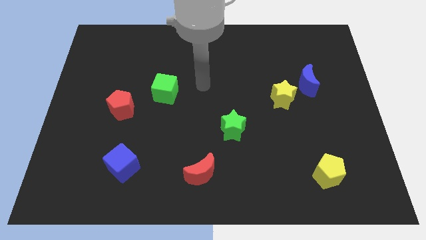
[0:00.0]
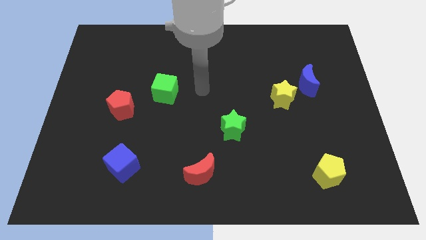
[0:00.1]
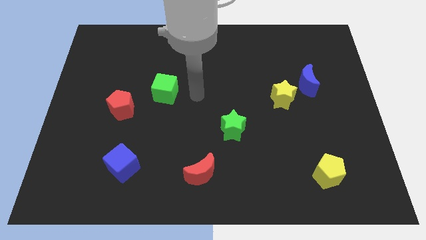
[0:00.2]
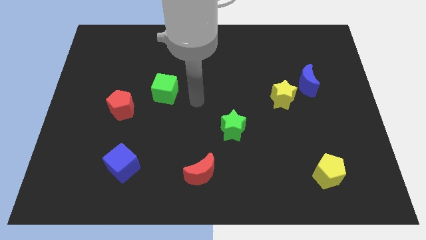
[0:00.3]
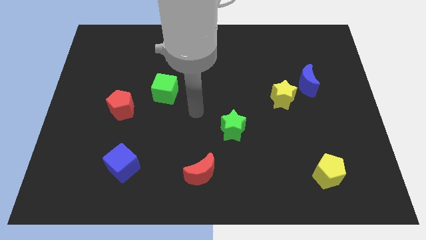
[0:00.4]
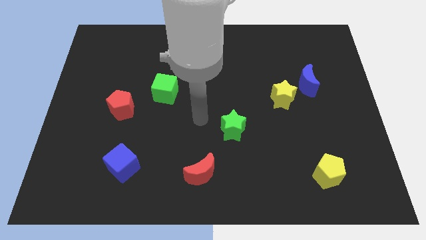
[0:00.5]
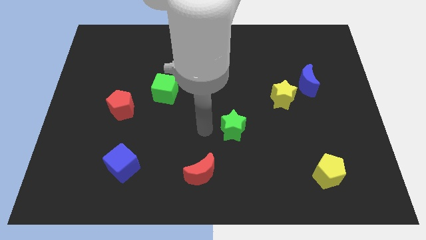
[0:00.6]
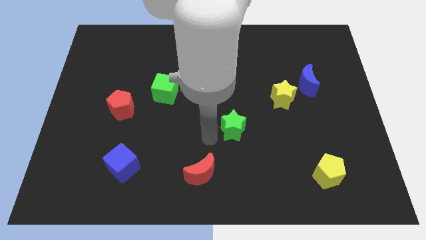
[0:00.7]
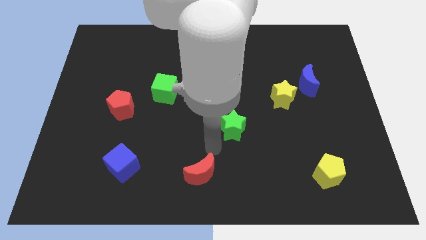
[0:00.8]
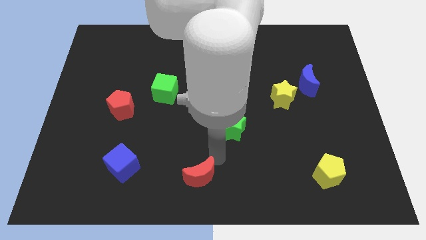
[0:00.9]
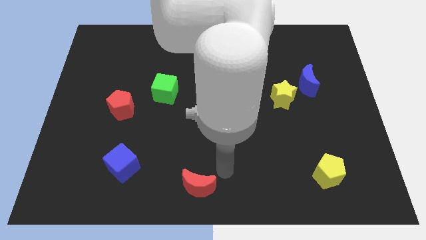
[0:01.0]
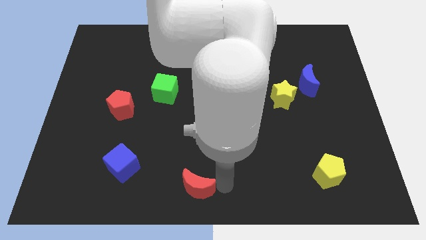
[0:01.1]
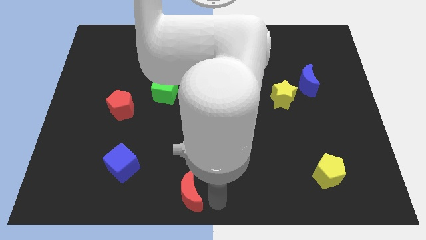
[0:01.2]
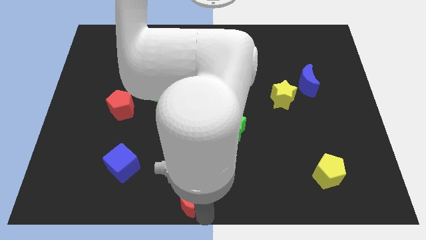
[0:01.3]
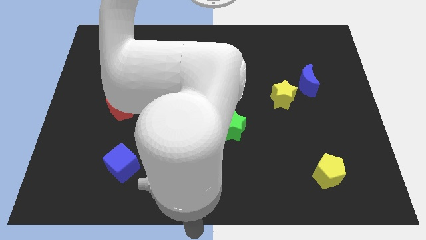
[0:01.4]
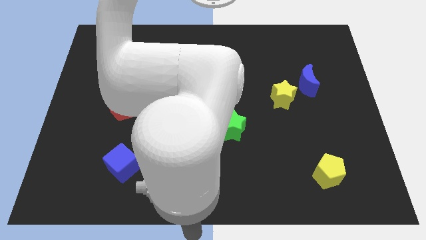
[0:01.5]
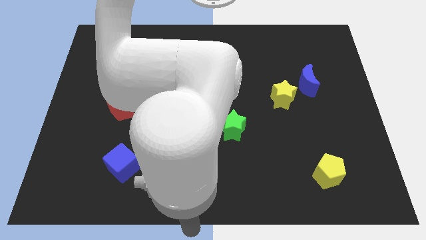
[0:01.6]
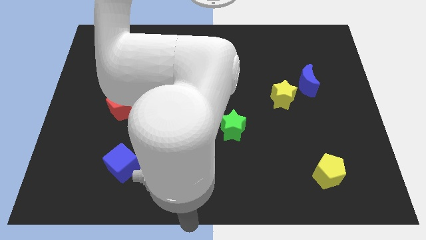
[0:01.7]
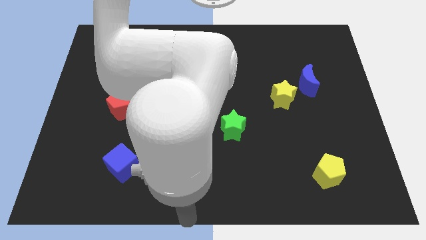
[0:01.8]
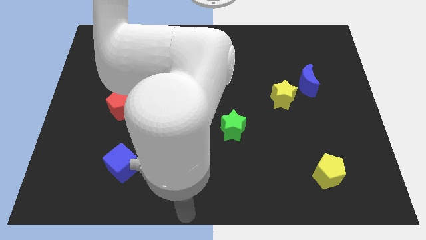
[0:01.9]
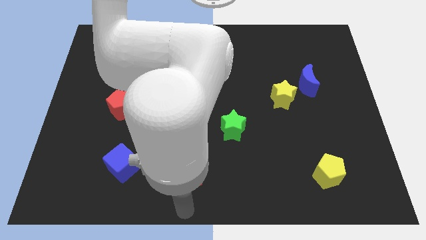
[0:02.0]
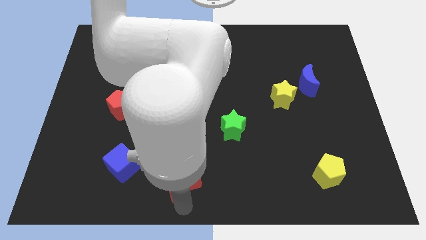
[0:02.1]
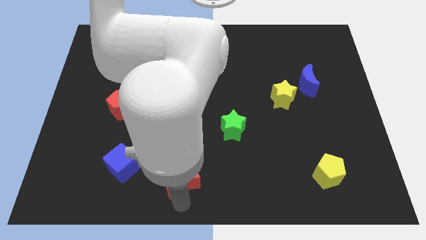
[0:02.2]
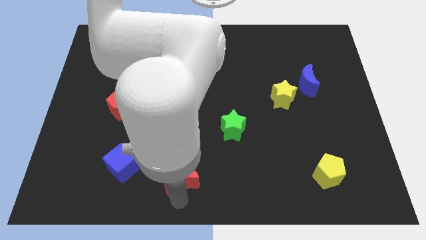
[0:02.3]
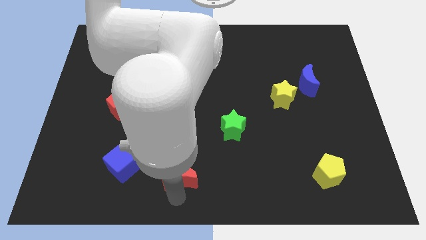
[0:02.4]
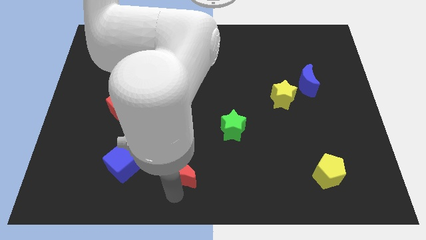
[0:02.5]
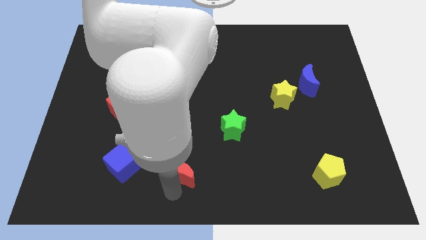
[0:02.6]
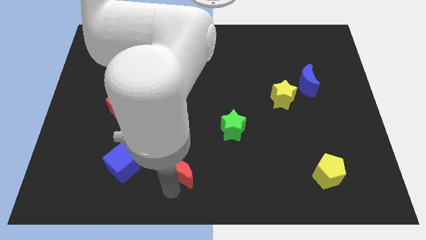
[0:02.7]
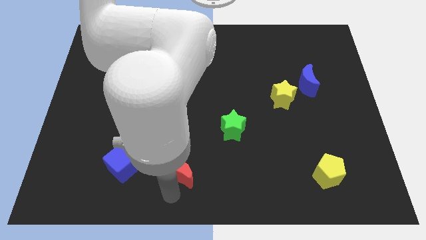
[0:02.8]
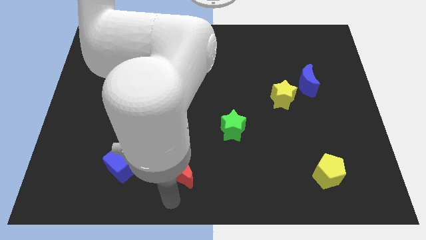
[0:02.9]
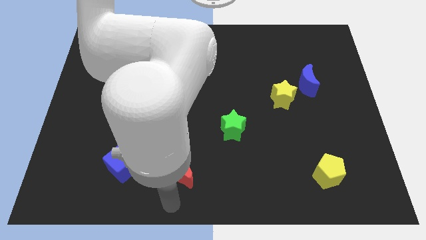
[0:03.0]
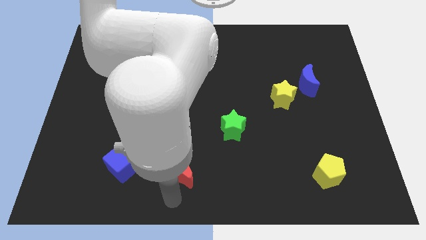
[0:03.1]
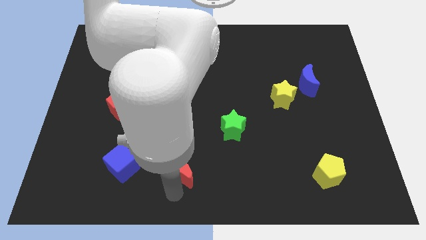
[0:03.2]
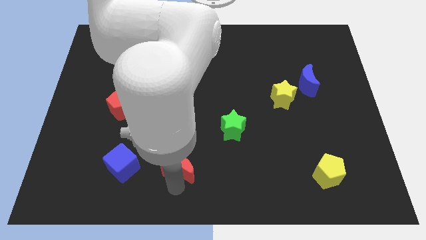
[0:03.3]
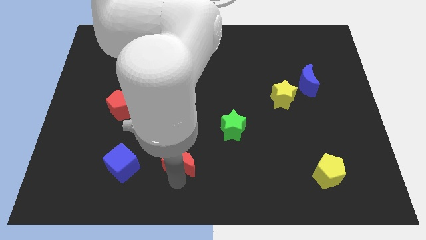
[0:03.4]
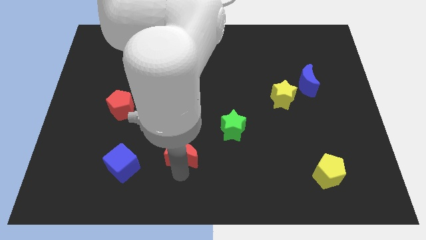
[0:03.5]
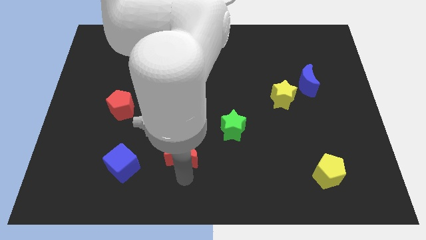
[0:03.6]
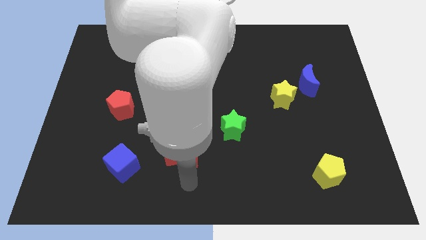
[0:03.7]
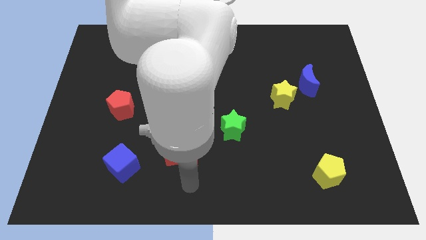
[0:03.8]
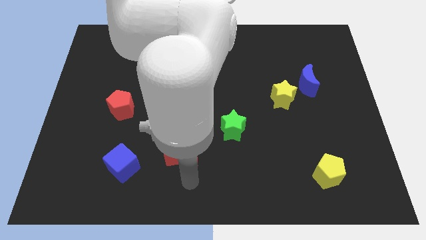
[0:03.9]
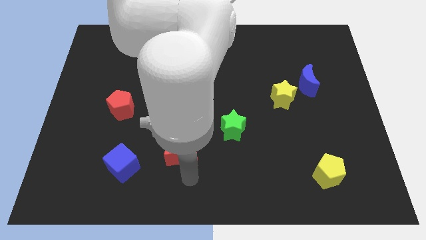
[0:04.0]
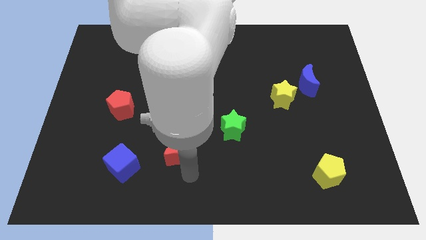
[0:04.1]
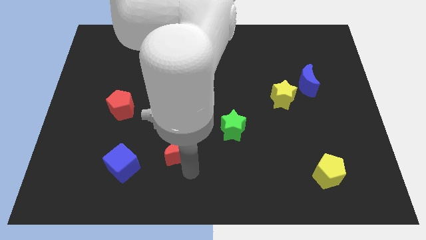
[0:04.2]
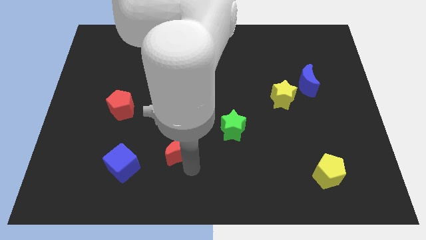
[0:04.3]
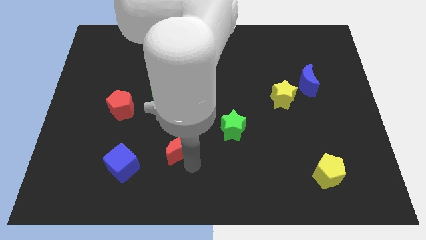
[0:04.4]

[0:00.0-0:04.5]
push the red moon diagonally up and left a bit

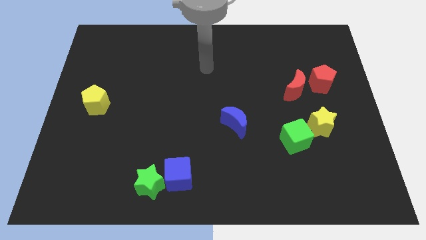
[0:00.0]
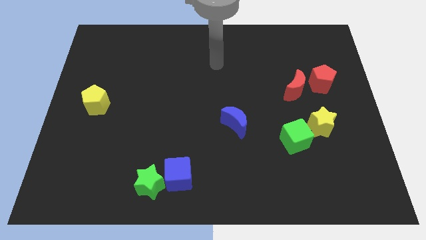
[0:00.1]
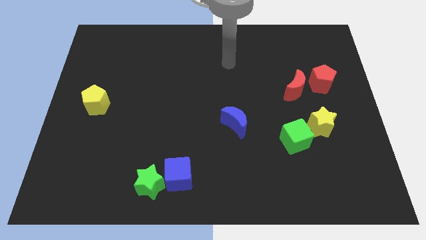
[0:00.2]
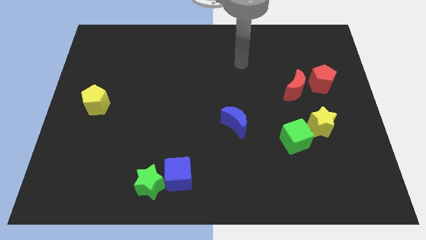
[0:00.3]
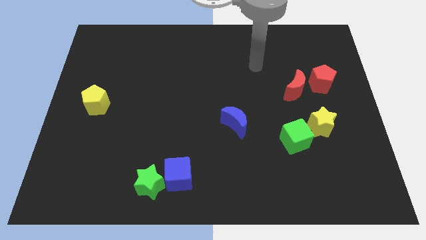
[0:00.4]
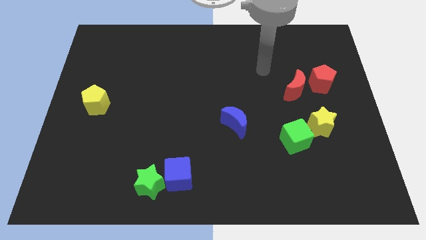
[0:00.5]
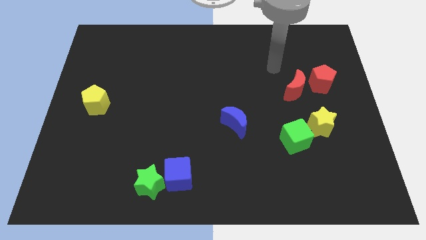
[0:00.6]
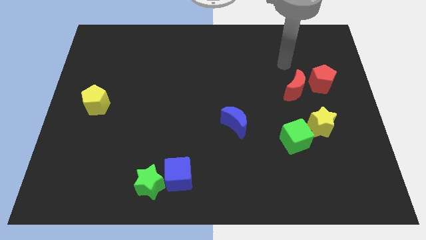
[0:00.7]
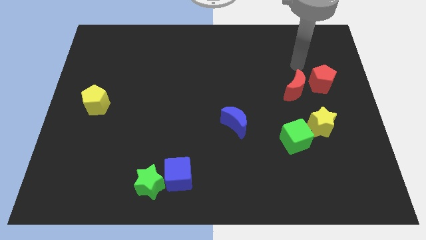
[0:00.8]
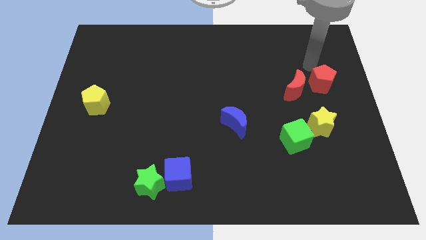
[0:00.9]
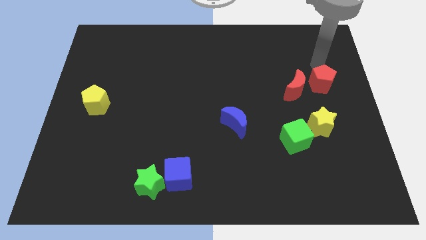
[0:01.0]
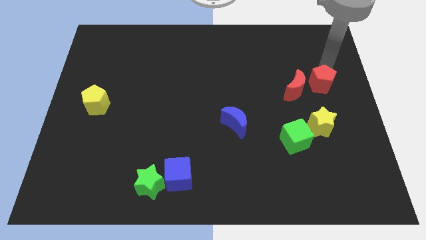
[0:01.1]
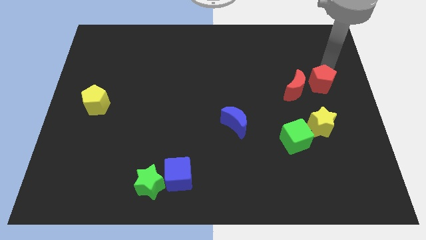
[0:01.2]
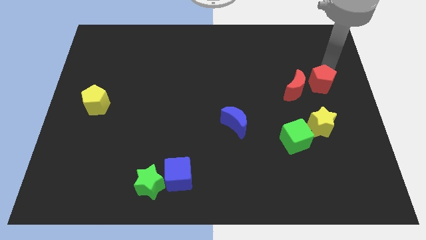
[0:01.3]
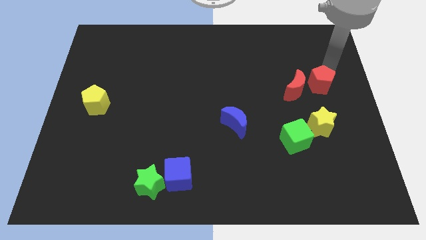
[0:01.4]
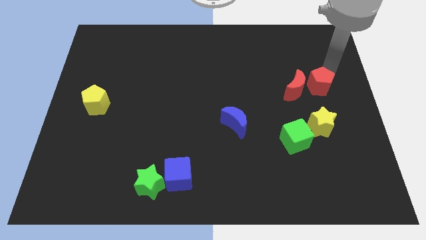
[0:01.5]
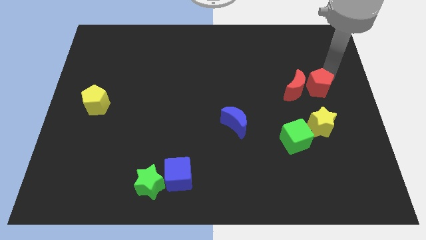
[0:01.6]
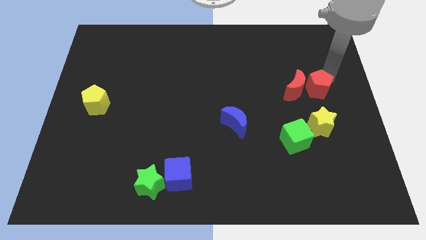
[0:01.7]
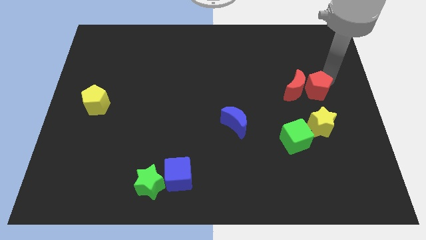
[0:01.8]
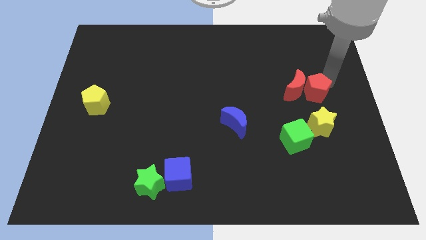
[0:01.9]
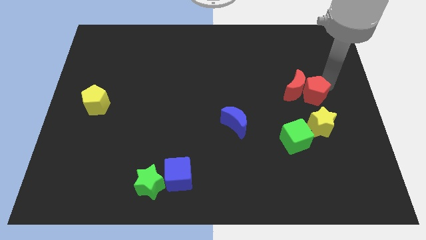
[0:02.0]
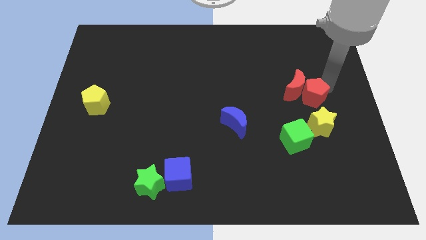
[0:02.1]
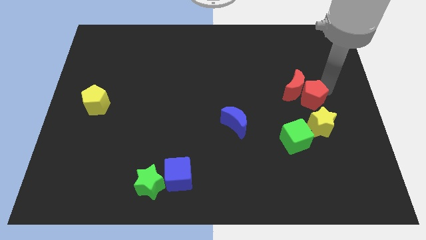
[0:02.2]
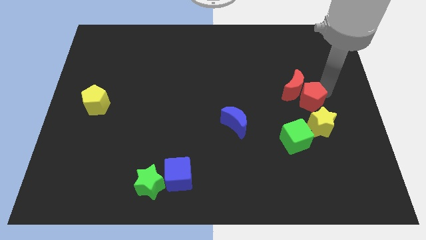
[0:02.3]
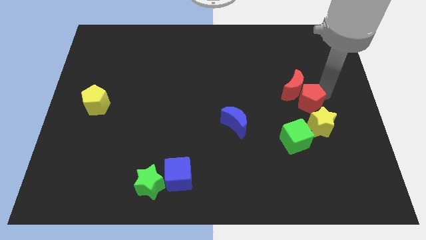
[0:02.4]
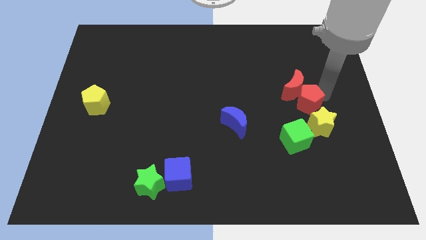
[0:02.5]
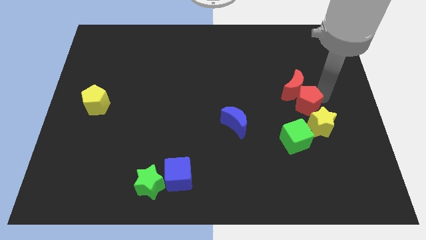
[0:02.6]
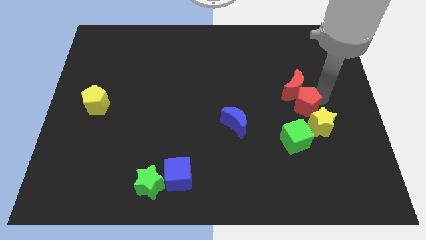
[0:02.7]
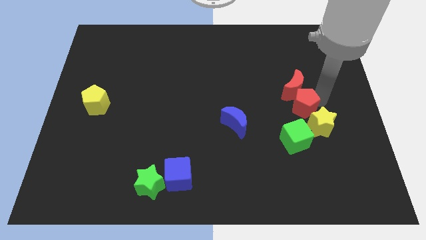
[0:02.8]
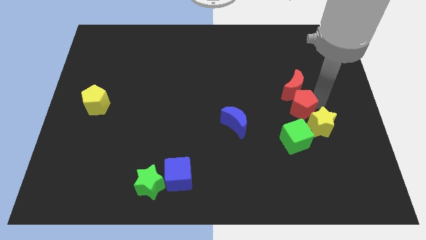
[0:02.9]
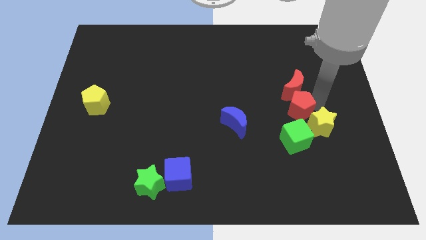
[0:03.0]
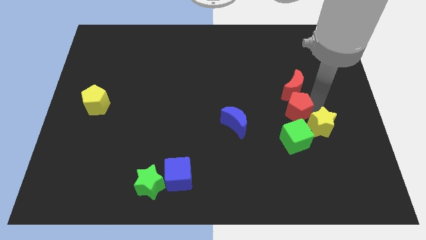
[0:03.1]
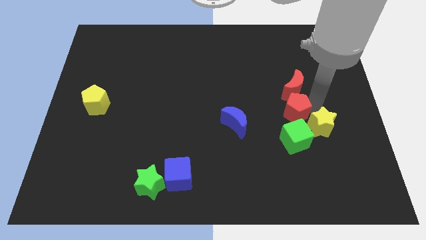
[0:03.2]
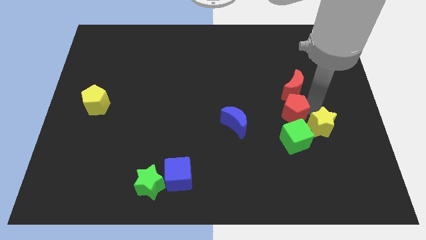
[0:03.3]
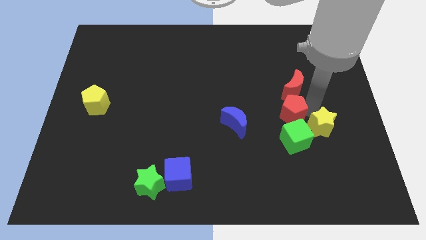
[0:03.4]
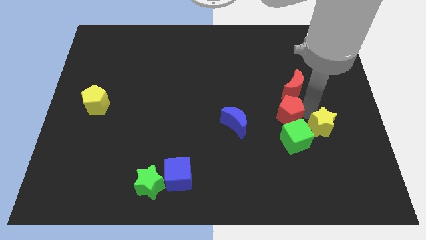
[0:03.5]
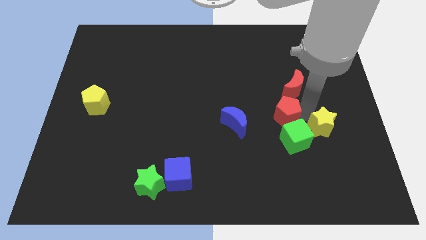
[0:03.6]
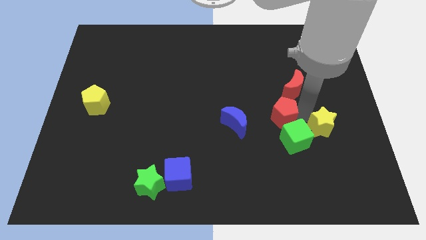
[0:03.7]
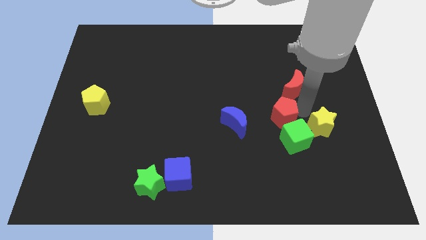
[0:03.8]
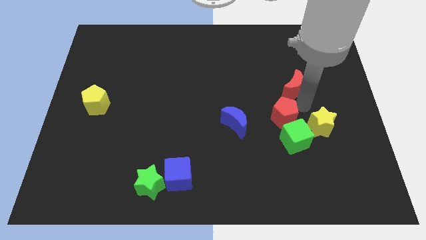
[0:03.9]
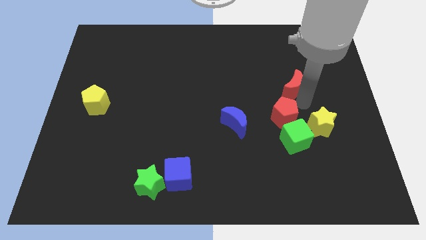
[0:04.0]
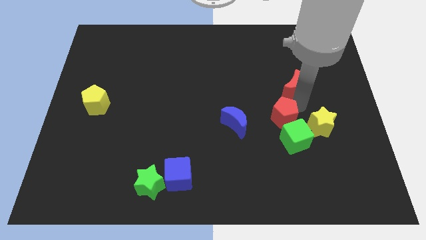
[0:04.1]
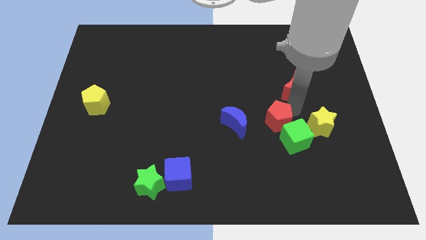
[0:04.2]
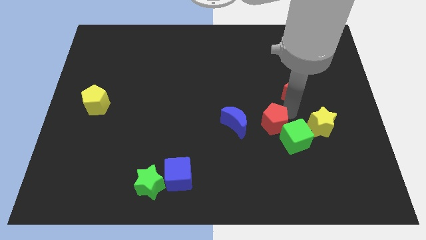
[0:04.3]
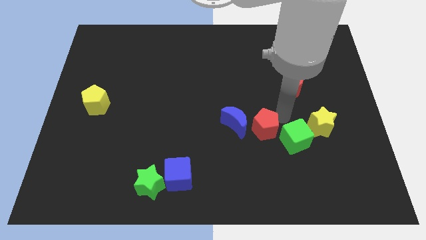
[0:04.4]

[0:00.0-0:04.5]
slide the red pentagon diagonally down and left
